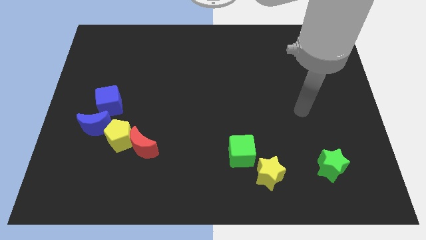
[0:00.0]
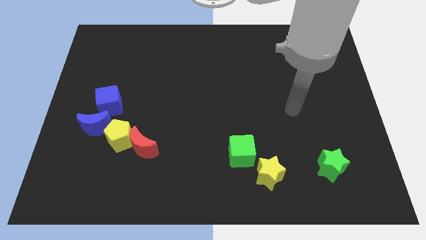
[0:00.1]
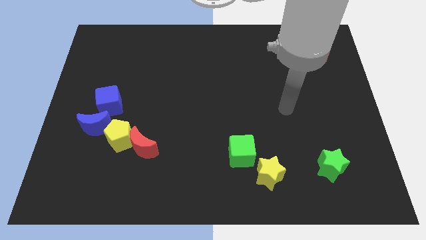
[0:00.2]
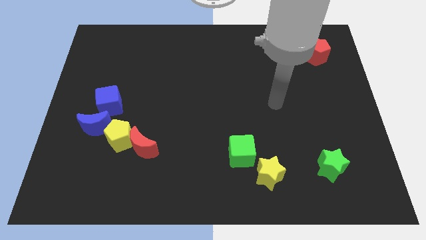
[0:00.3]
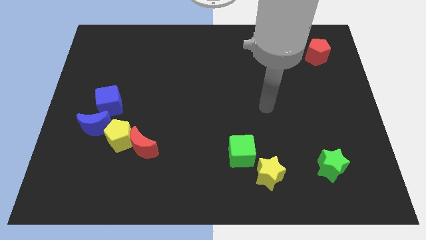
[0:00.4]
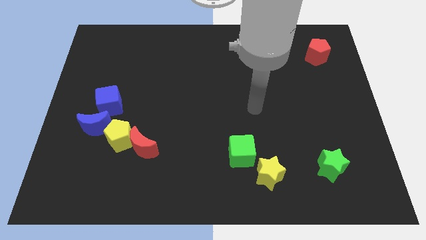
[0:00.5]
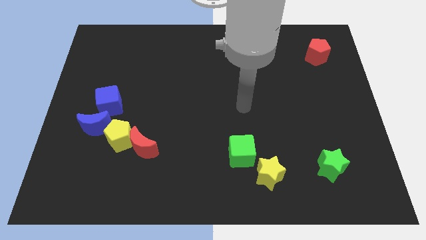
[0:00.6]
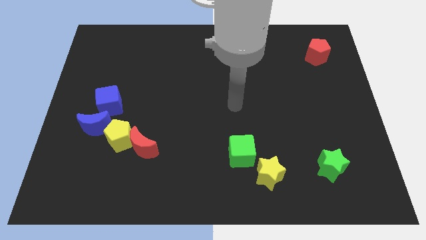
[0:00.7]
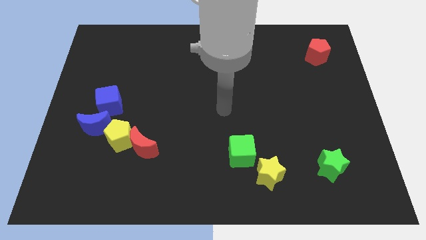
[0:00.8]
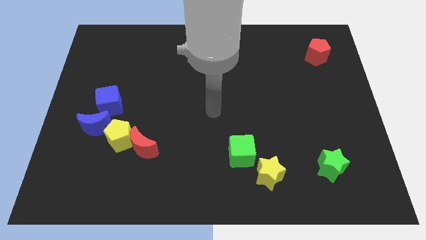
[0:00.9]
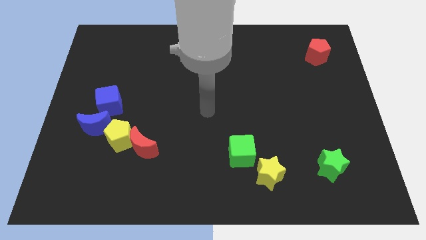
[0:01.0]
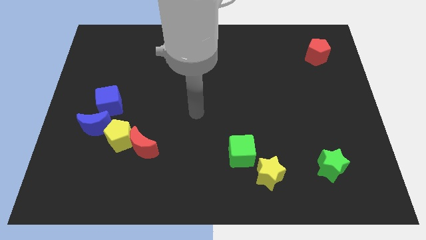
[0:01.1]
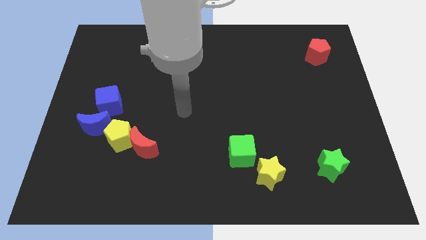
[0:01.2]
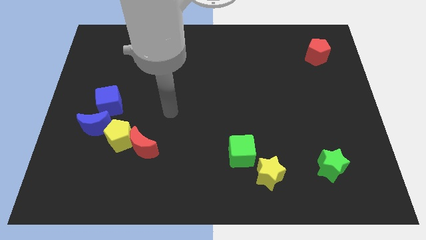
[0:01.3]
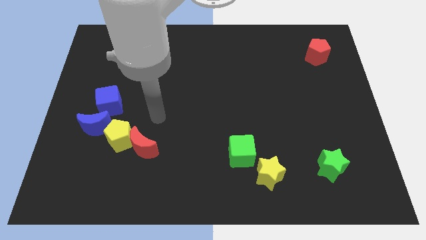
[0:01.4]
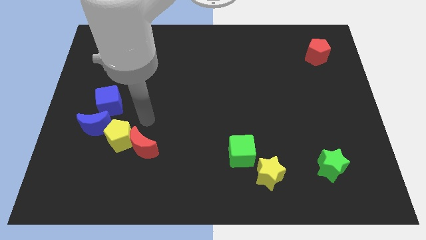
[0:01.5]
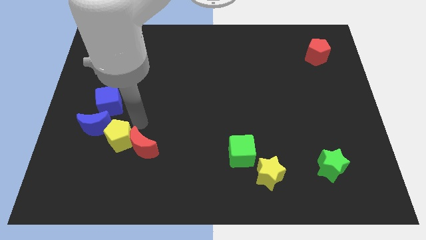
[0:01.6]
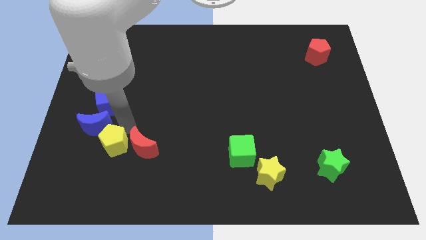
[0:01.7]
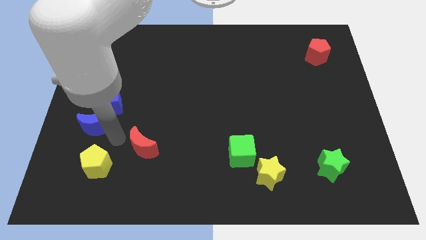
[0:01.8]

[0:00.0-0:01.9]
separate the red moon from the yellow pentagon

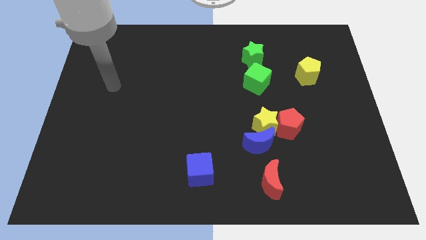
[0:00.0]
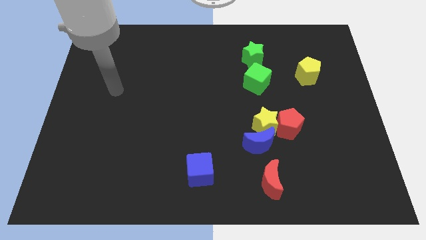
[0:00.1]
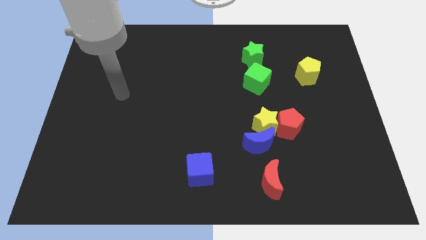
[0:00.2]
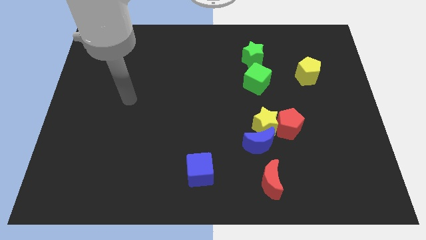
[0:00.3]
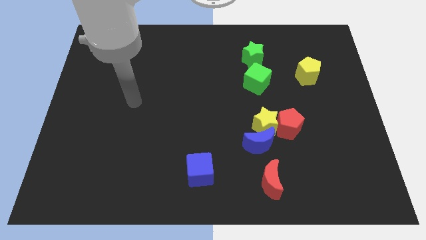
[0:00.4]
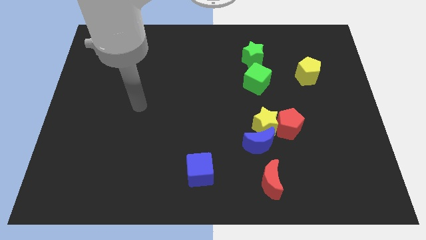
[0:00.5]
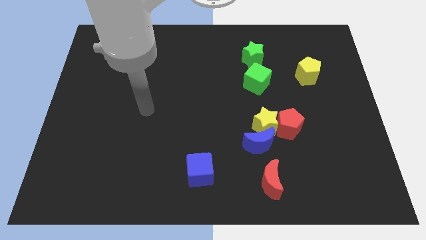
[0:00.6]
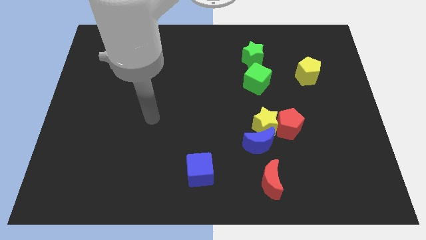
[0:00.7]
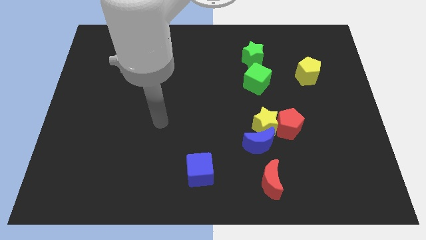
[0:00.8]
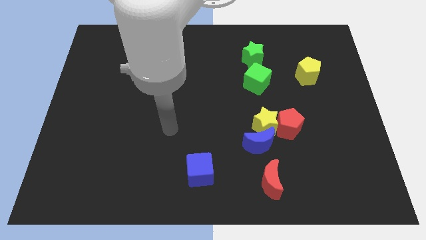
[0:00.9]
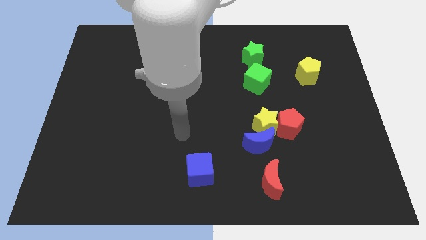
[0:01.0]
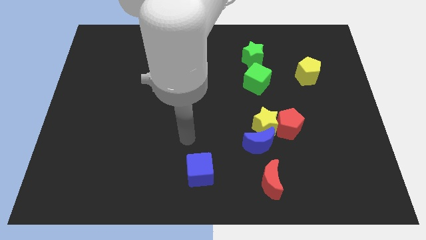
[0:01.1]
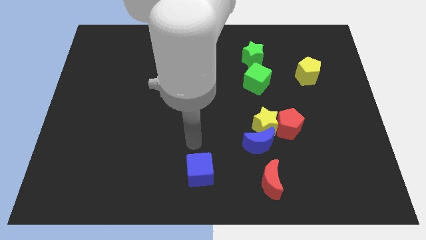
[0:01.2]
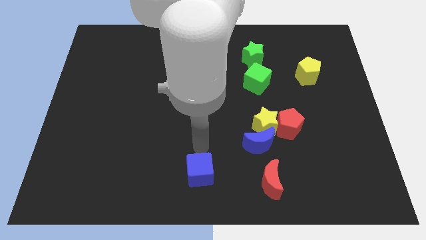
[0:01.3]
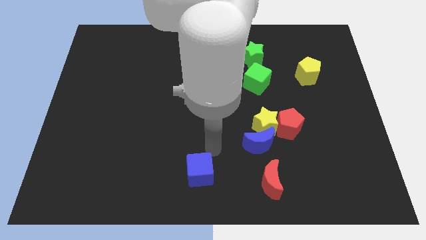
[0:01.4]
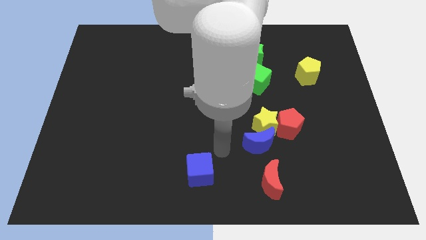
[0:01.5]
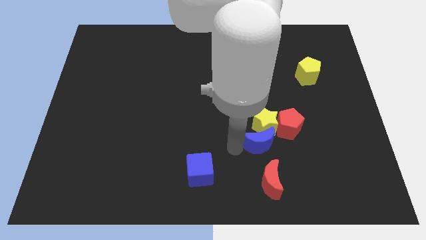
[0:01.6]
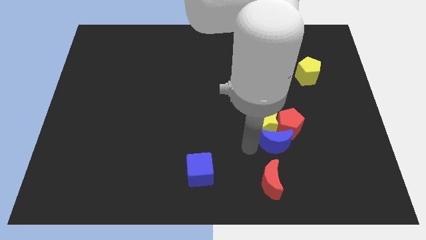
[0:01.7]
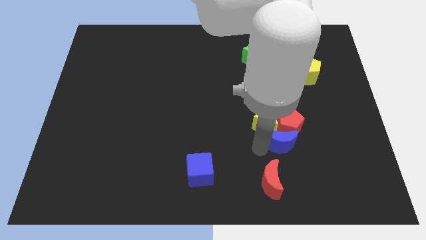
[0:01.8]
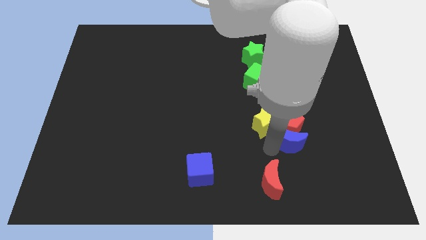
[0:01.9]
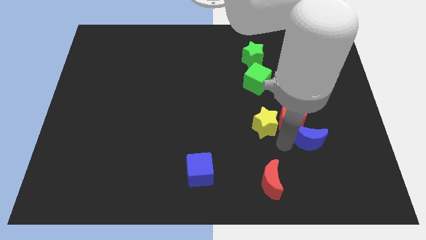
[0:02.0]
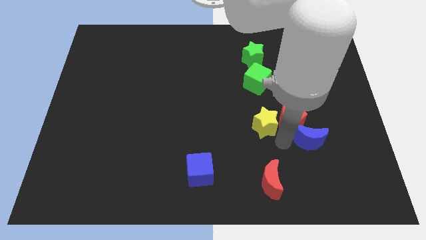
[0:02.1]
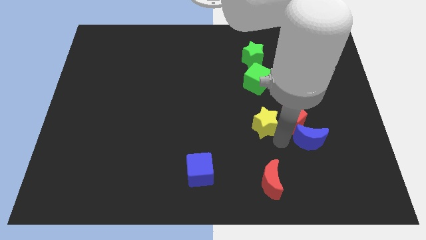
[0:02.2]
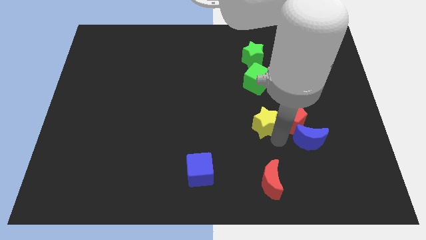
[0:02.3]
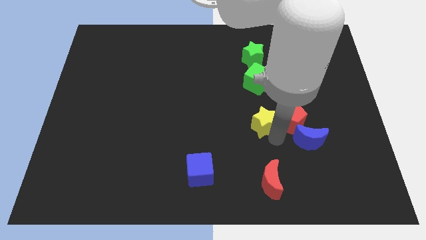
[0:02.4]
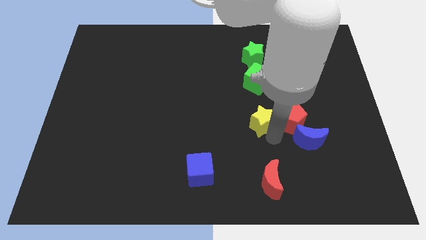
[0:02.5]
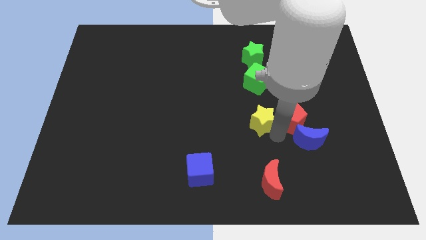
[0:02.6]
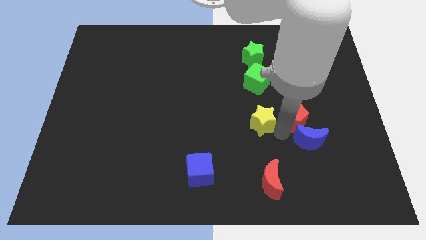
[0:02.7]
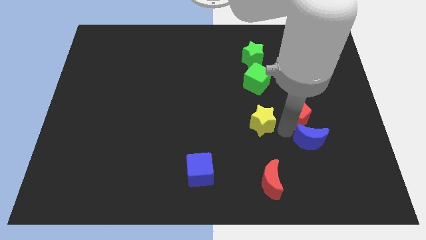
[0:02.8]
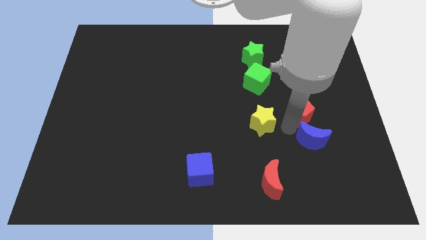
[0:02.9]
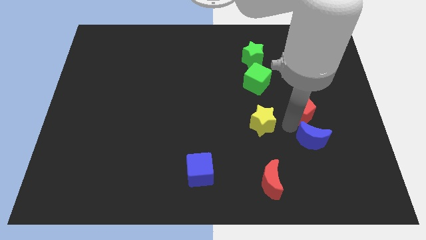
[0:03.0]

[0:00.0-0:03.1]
separate the yellow star from the blue moon and red pentagon

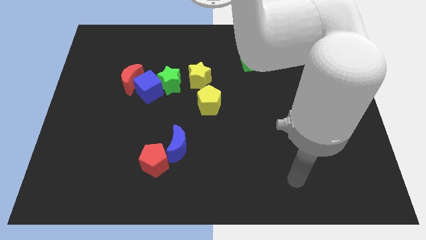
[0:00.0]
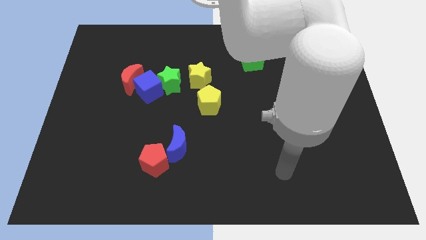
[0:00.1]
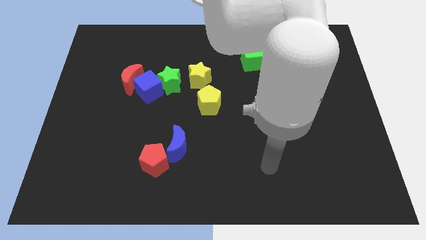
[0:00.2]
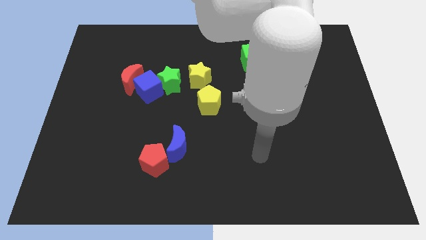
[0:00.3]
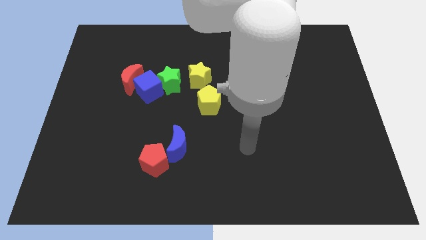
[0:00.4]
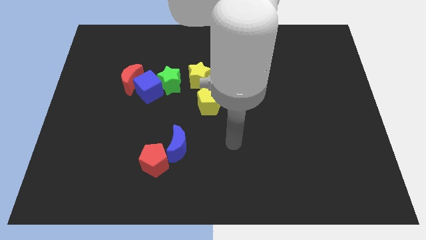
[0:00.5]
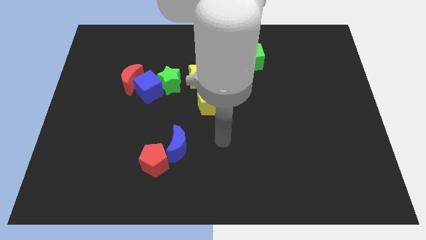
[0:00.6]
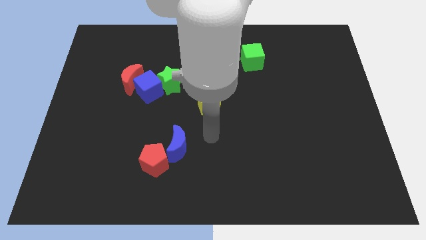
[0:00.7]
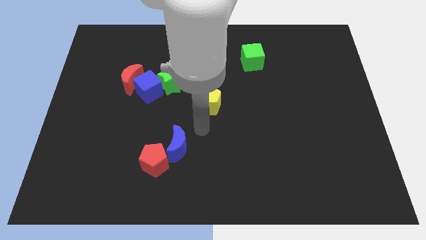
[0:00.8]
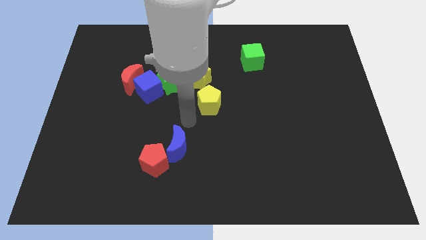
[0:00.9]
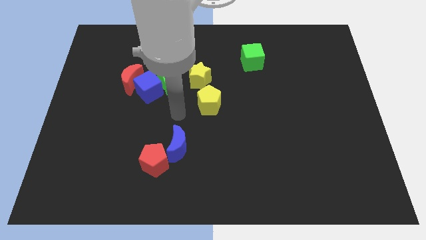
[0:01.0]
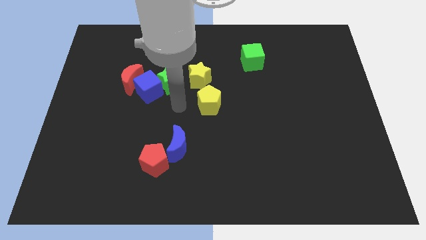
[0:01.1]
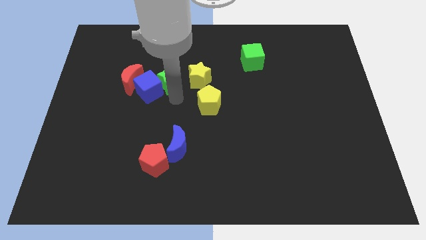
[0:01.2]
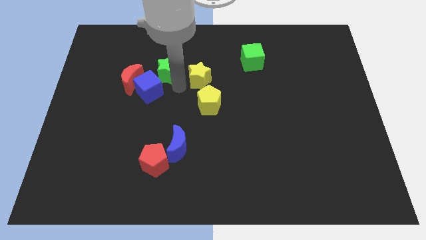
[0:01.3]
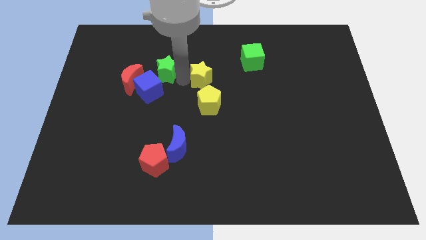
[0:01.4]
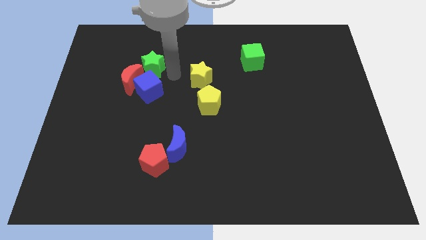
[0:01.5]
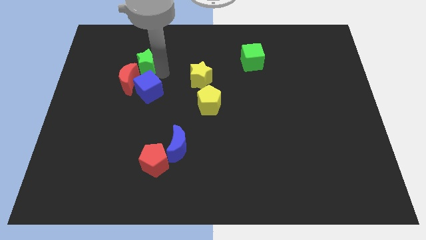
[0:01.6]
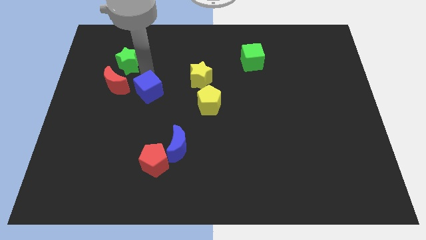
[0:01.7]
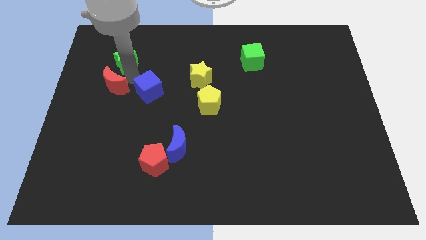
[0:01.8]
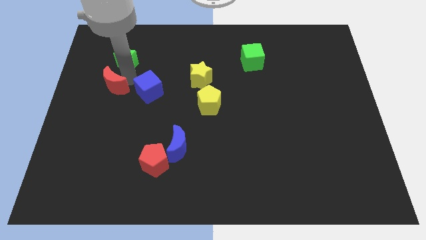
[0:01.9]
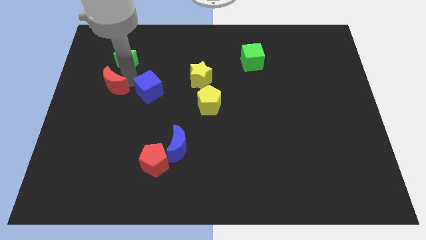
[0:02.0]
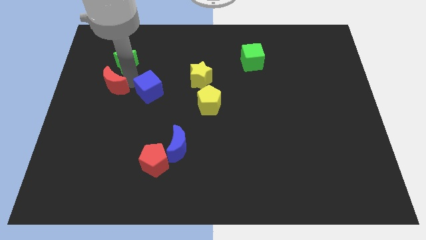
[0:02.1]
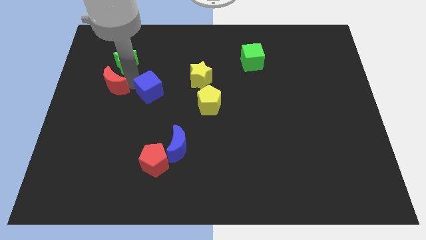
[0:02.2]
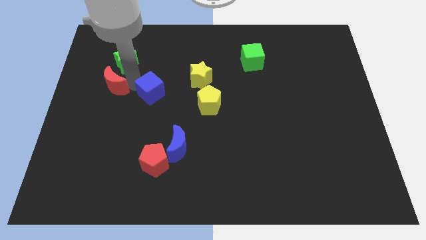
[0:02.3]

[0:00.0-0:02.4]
separate the blue cube from the green star and red moon

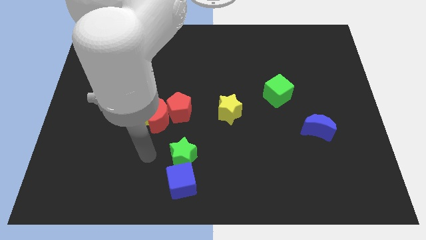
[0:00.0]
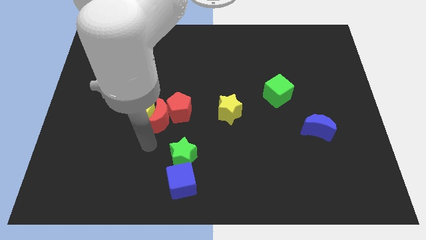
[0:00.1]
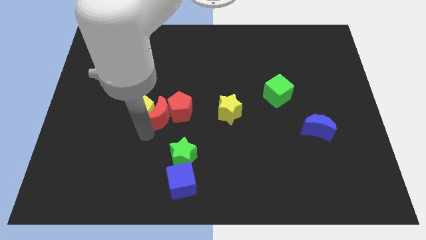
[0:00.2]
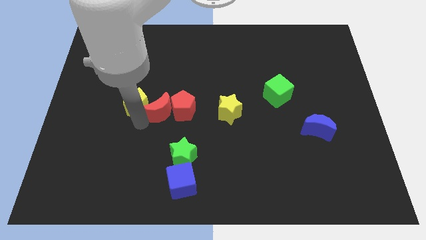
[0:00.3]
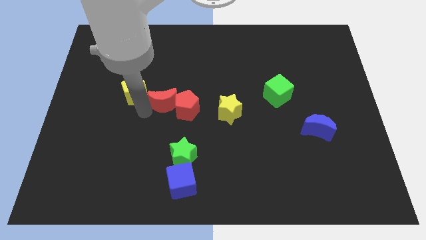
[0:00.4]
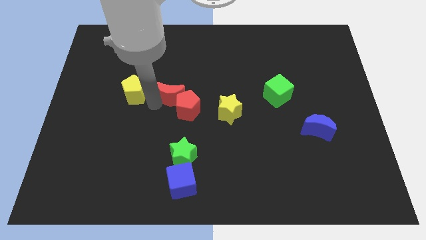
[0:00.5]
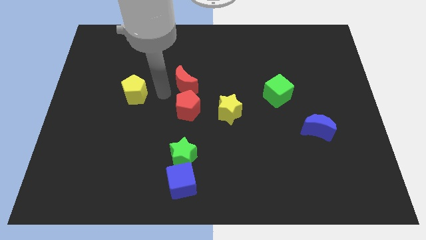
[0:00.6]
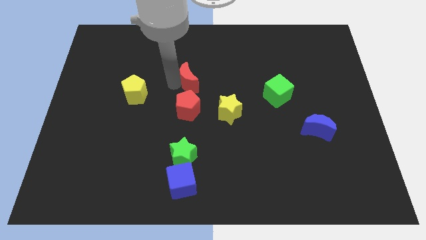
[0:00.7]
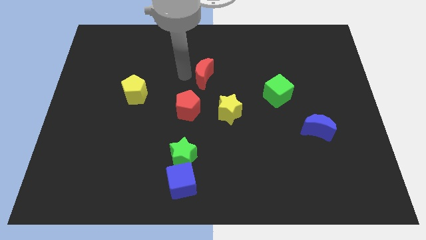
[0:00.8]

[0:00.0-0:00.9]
move the red moon away from the yellow pentagon and red pentagon

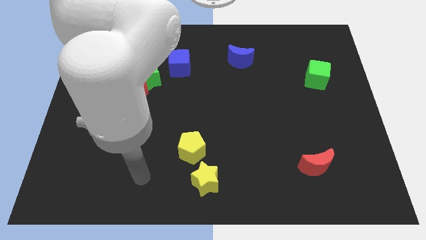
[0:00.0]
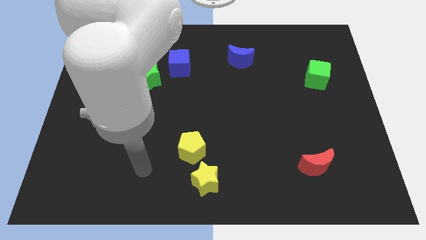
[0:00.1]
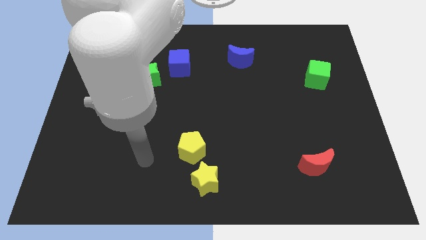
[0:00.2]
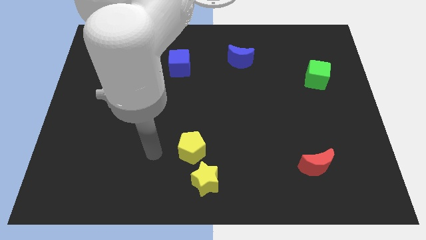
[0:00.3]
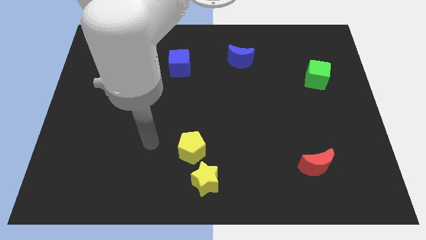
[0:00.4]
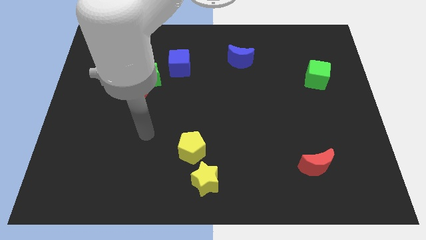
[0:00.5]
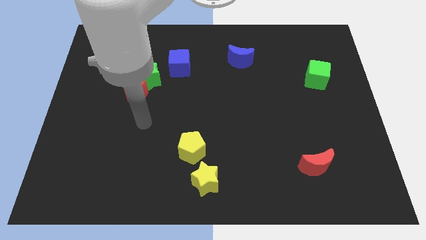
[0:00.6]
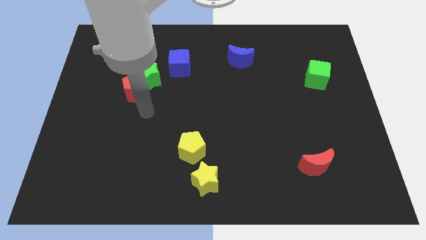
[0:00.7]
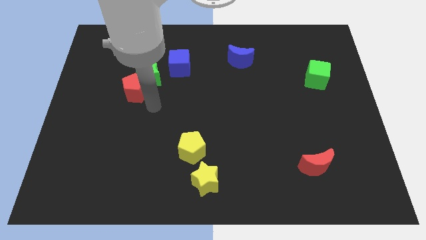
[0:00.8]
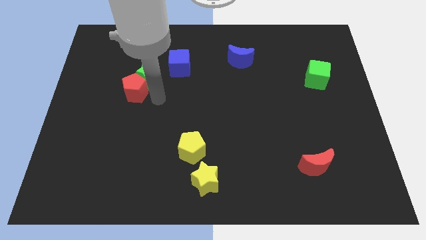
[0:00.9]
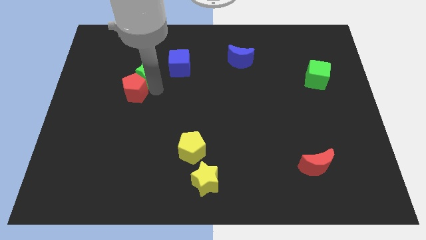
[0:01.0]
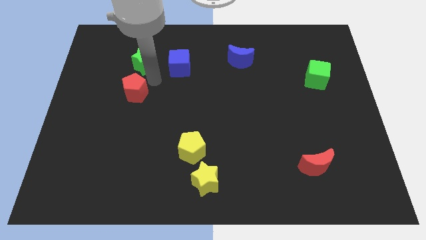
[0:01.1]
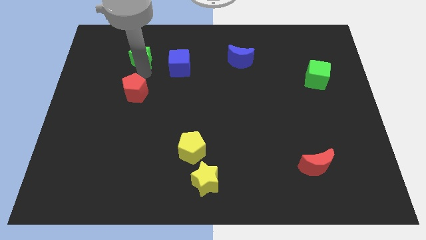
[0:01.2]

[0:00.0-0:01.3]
separate the red pentagon from the green star
